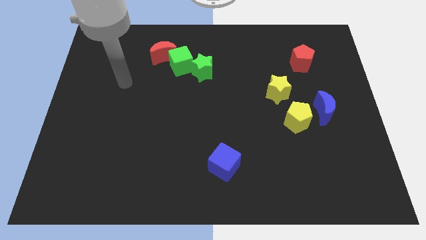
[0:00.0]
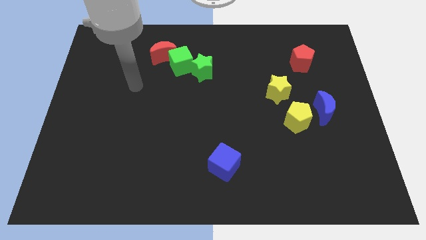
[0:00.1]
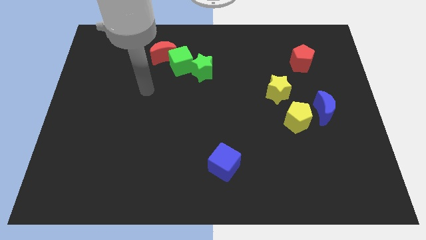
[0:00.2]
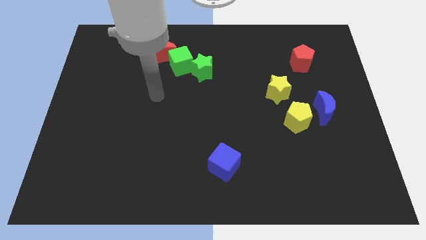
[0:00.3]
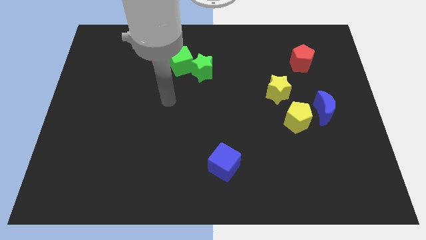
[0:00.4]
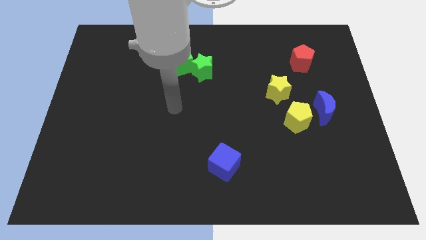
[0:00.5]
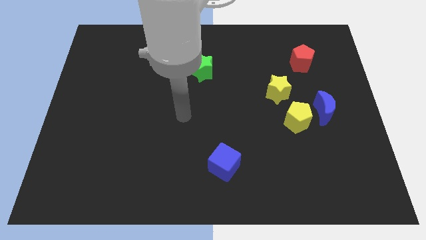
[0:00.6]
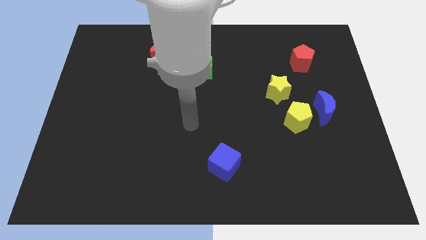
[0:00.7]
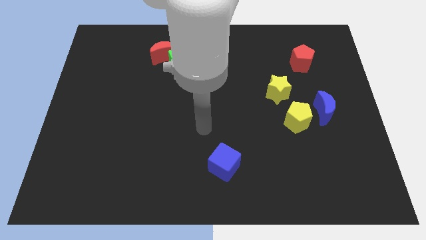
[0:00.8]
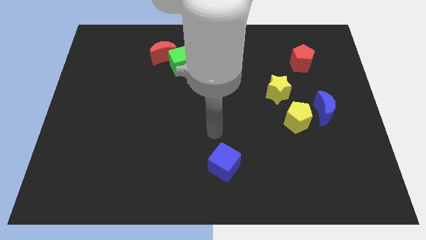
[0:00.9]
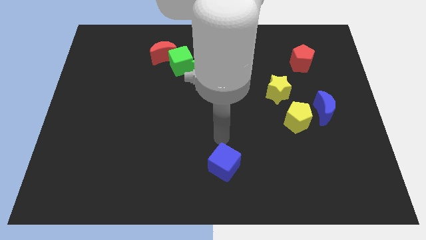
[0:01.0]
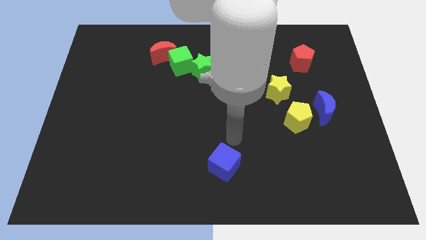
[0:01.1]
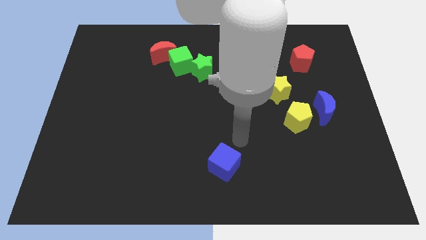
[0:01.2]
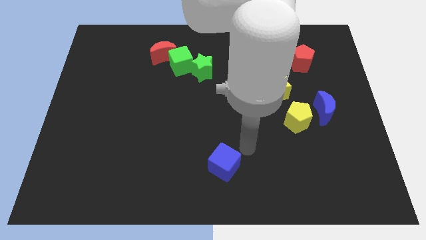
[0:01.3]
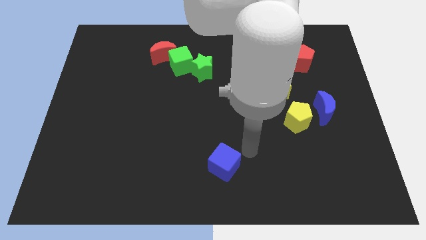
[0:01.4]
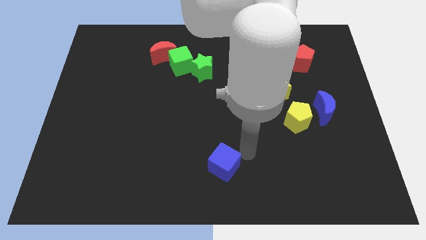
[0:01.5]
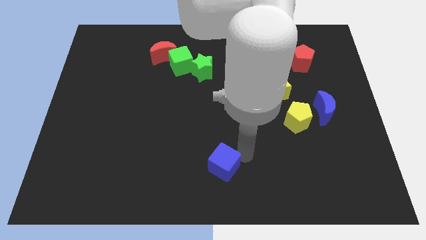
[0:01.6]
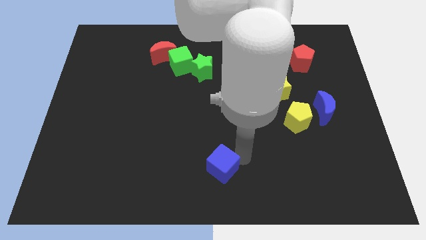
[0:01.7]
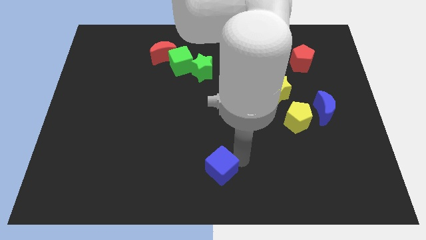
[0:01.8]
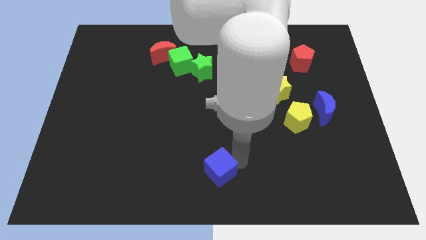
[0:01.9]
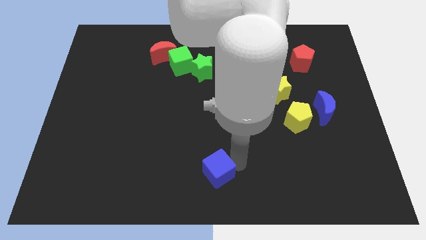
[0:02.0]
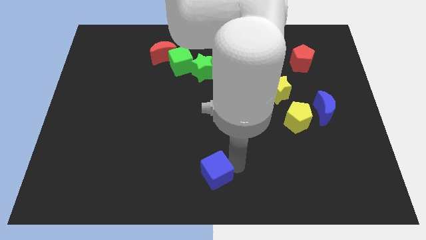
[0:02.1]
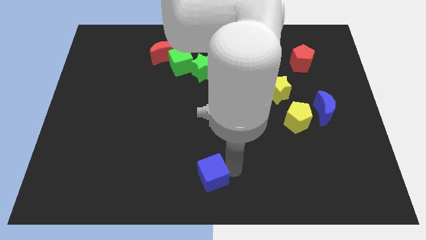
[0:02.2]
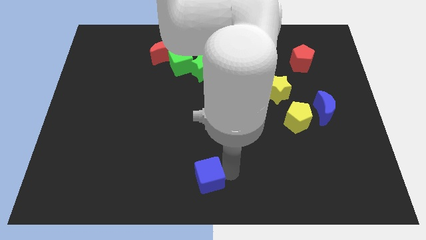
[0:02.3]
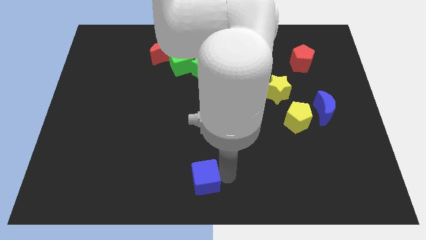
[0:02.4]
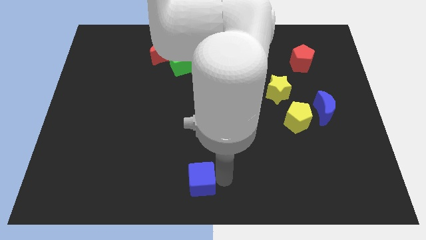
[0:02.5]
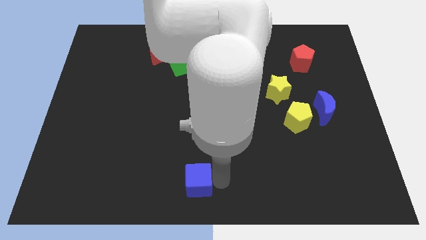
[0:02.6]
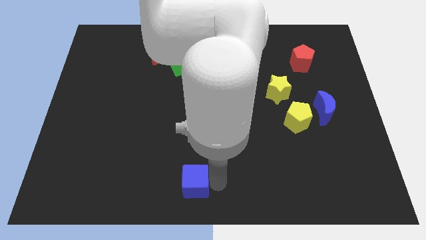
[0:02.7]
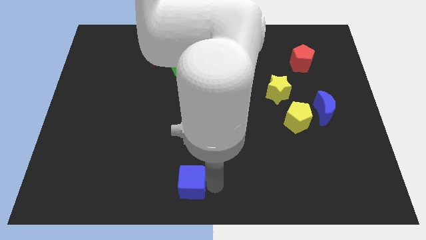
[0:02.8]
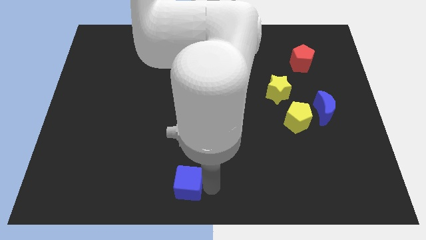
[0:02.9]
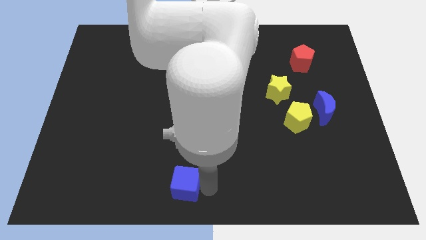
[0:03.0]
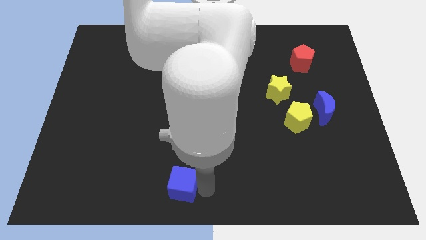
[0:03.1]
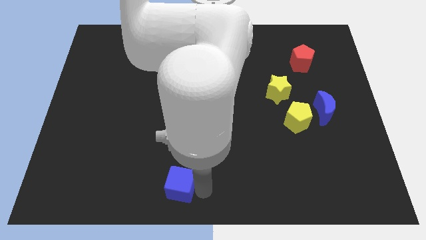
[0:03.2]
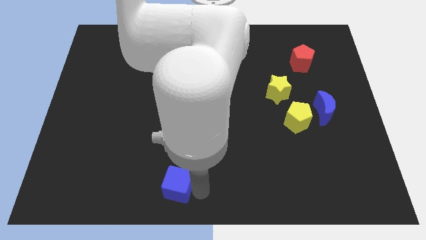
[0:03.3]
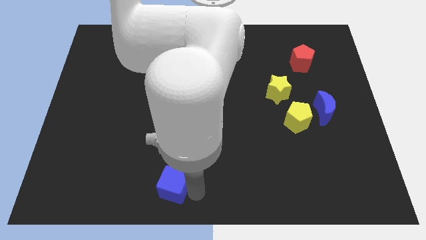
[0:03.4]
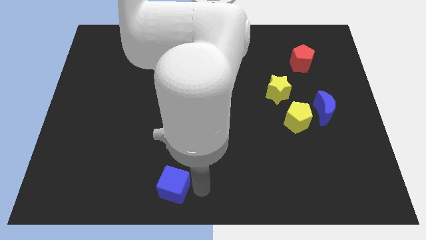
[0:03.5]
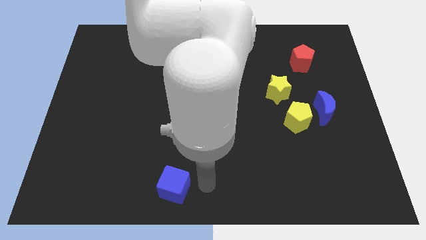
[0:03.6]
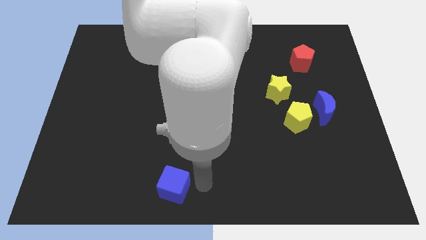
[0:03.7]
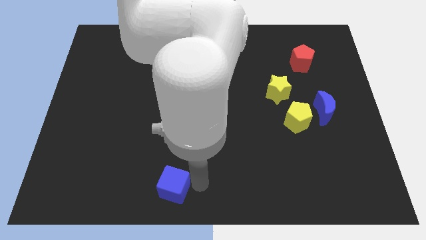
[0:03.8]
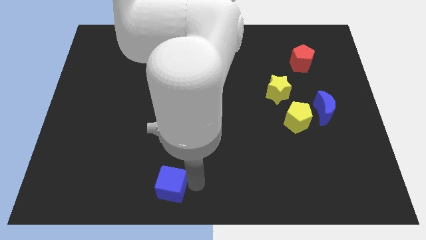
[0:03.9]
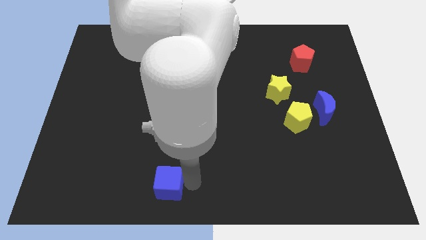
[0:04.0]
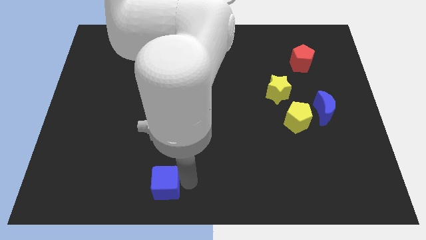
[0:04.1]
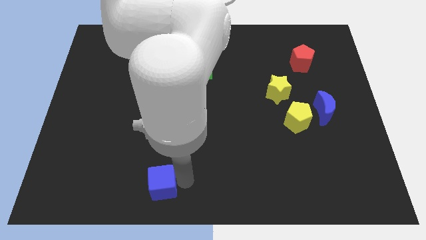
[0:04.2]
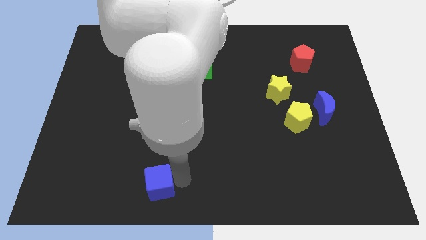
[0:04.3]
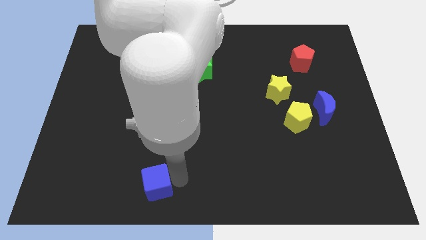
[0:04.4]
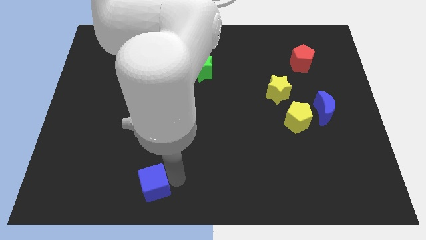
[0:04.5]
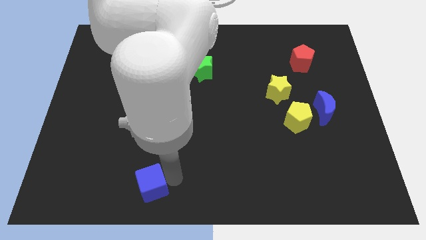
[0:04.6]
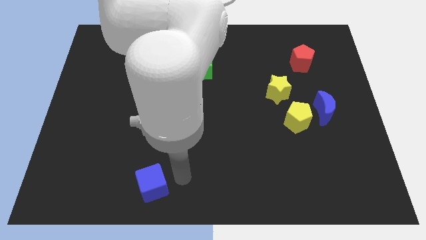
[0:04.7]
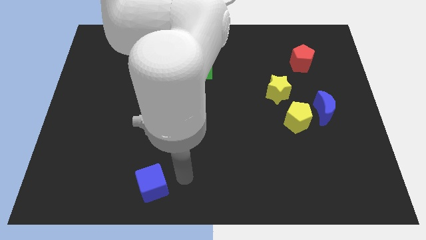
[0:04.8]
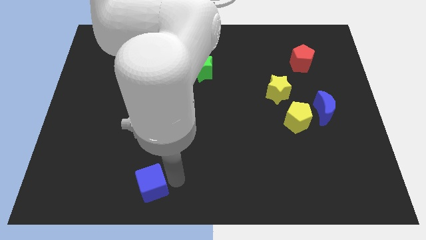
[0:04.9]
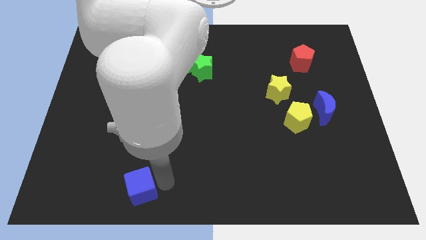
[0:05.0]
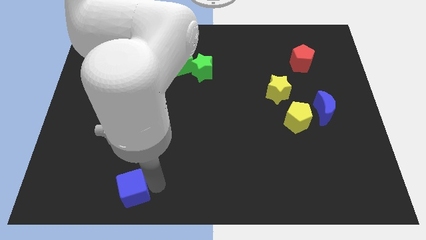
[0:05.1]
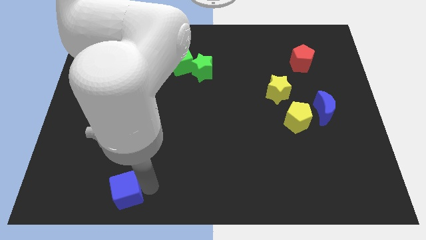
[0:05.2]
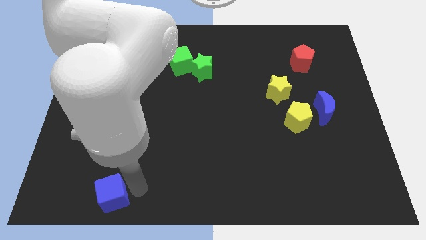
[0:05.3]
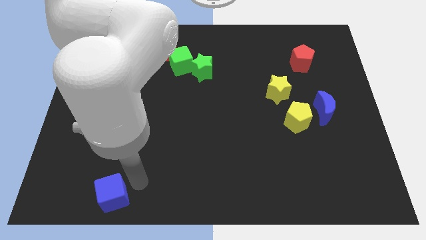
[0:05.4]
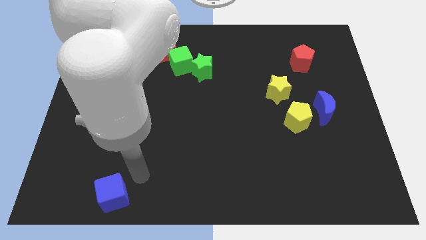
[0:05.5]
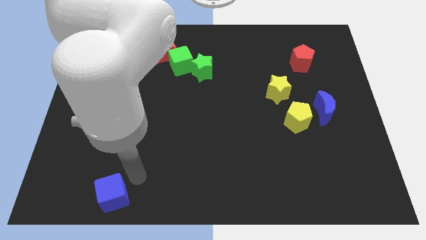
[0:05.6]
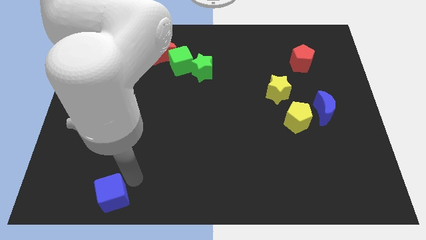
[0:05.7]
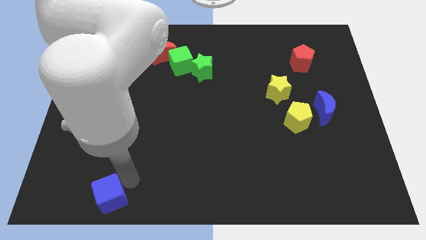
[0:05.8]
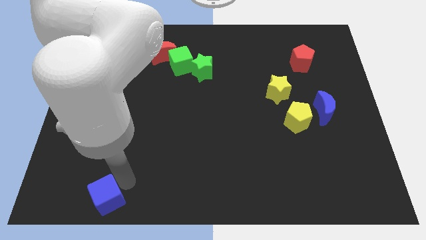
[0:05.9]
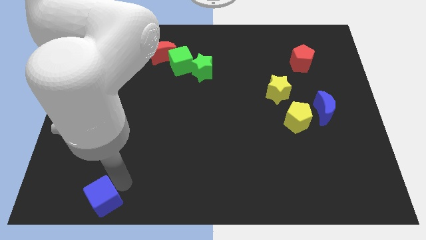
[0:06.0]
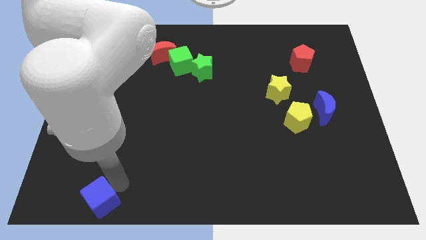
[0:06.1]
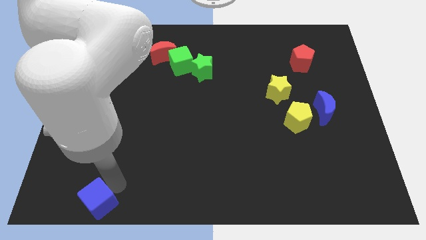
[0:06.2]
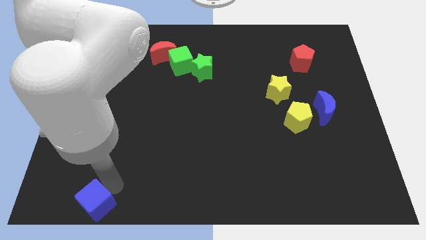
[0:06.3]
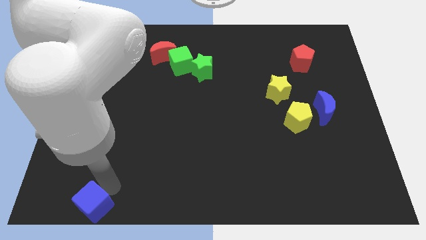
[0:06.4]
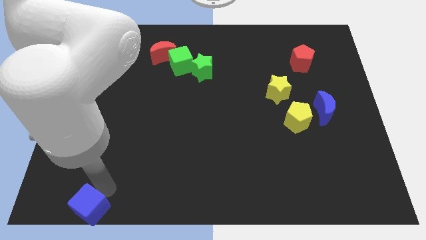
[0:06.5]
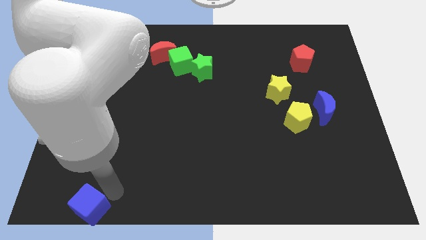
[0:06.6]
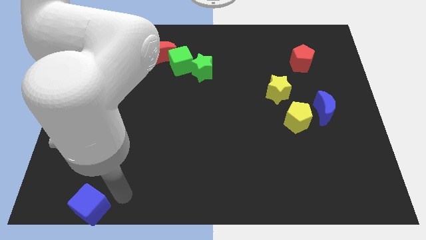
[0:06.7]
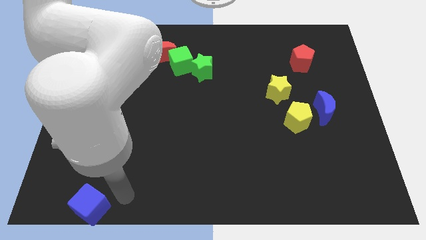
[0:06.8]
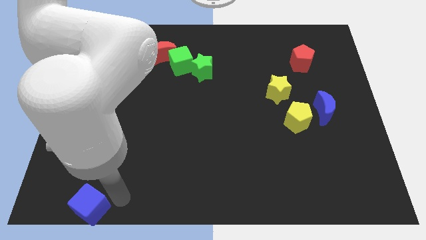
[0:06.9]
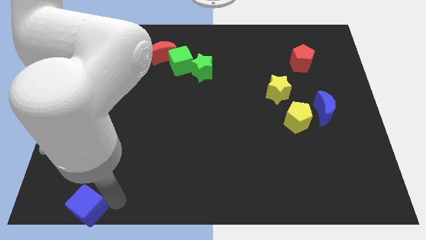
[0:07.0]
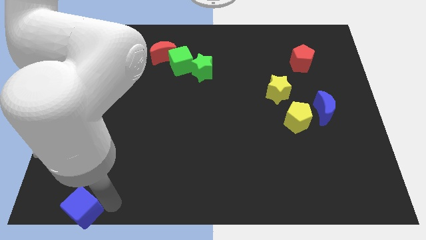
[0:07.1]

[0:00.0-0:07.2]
push the blue cube to the bottom left
